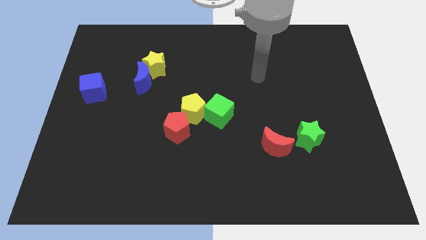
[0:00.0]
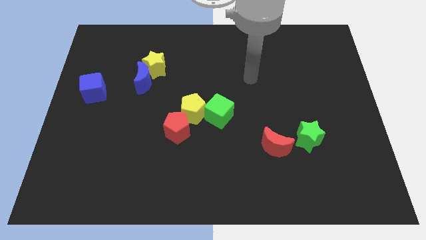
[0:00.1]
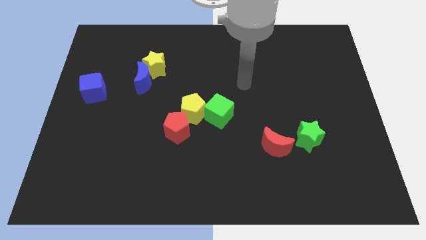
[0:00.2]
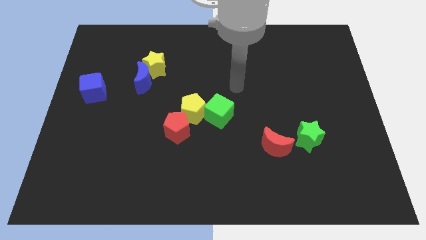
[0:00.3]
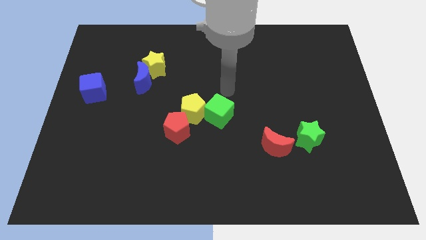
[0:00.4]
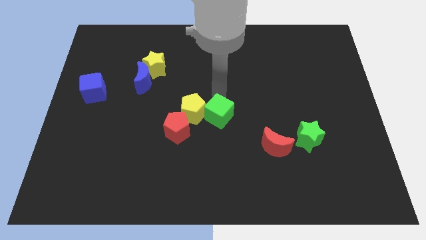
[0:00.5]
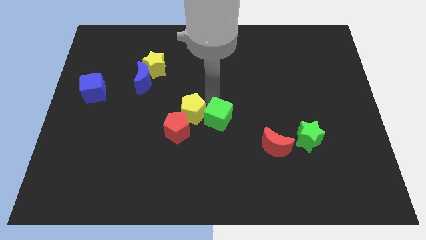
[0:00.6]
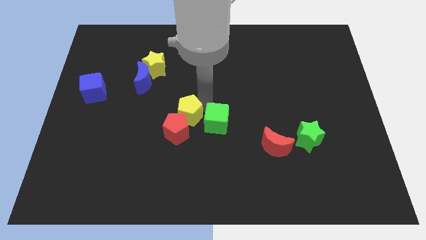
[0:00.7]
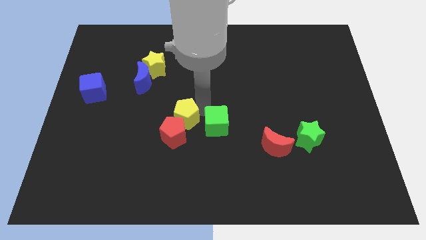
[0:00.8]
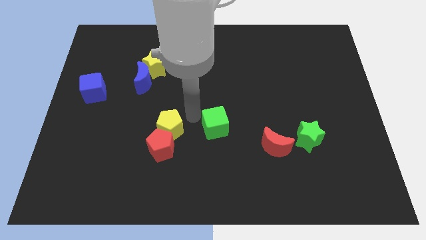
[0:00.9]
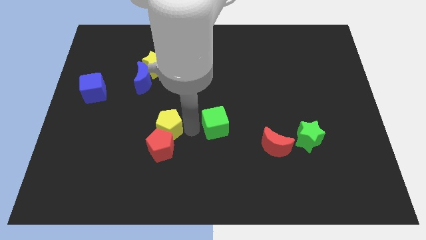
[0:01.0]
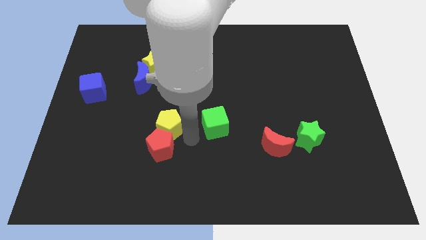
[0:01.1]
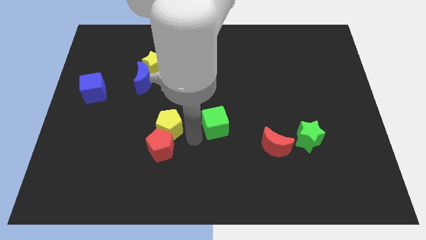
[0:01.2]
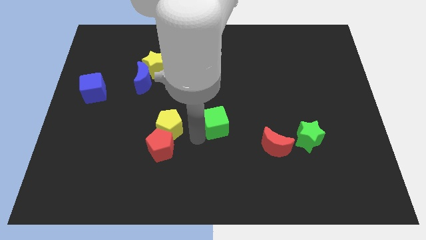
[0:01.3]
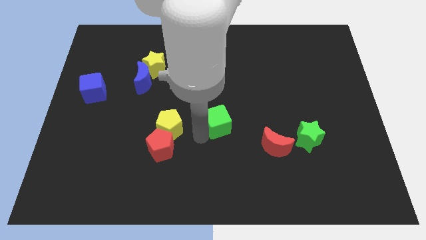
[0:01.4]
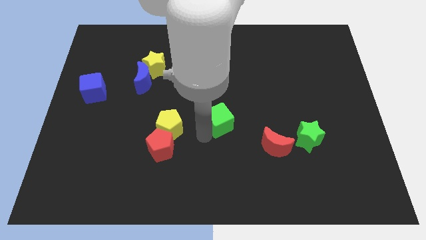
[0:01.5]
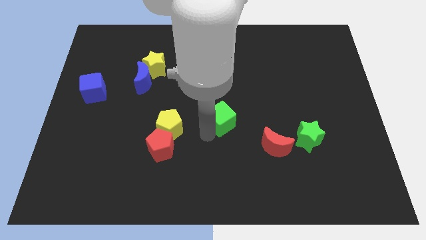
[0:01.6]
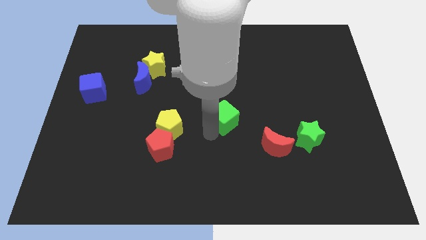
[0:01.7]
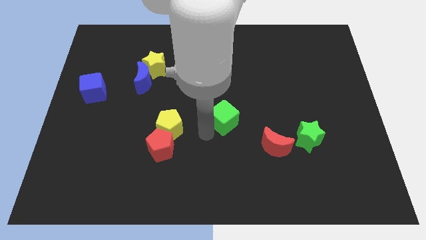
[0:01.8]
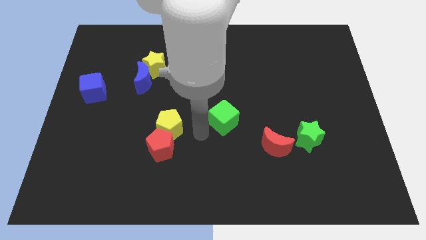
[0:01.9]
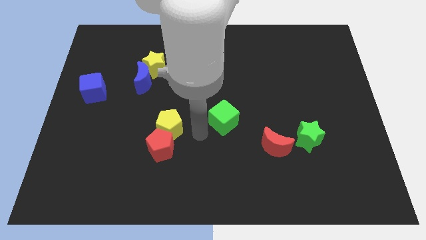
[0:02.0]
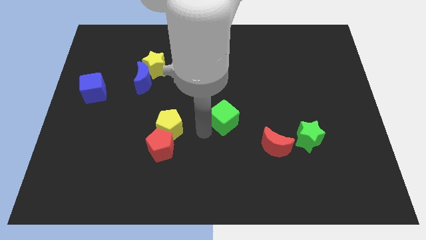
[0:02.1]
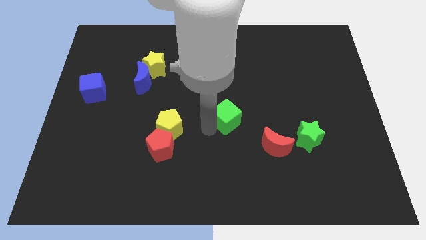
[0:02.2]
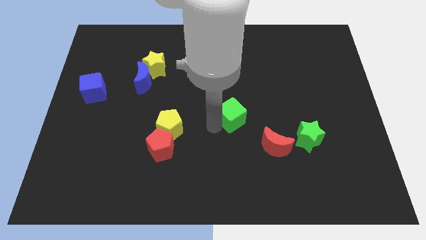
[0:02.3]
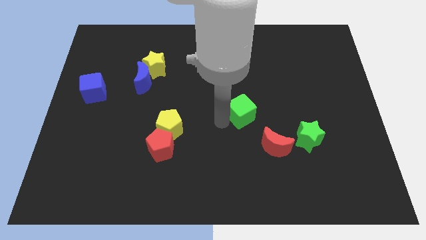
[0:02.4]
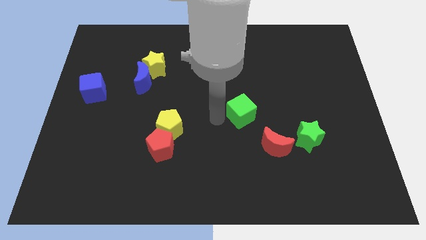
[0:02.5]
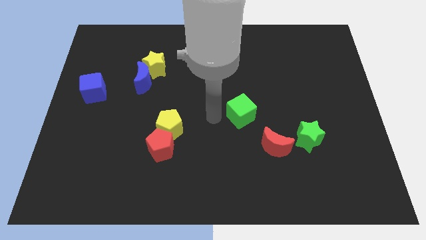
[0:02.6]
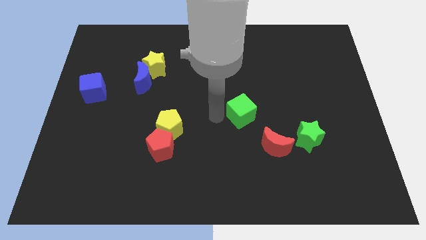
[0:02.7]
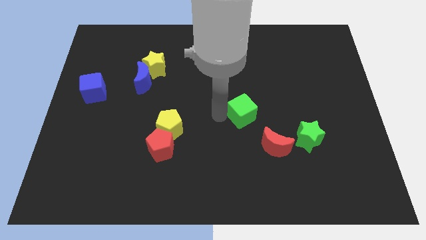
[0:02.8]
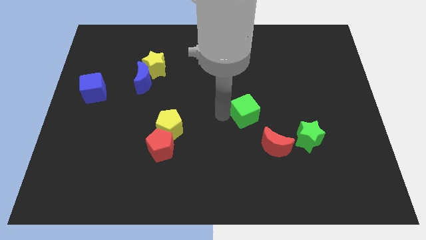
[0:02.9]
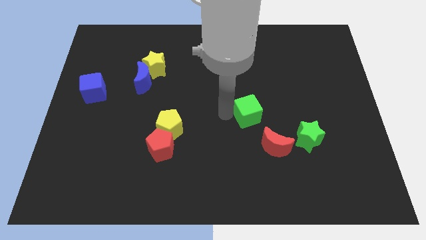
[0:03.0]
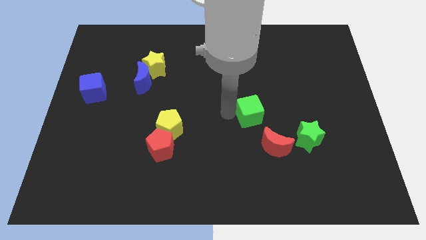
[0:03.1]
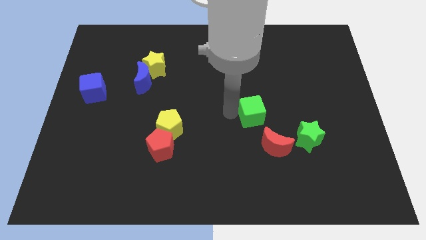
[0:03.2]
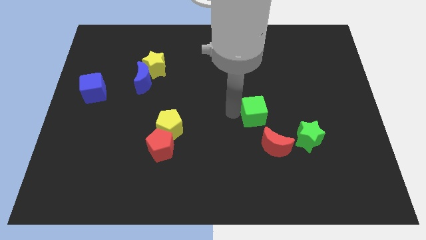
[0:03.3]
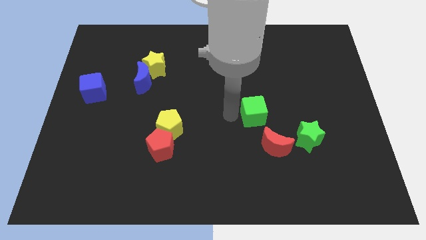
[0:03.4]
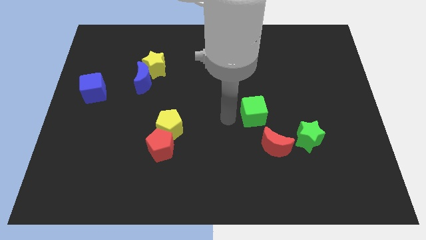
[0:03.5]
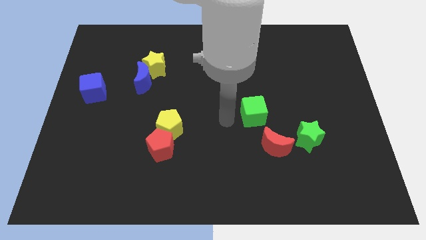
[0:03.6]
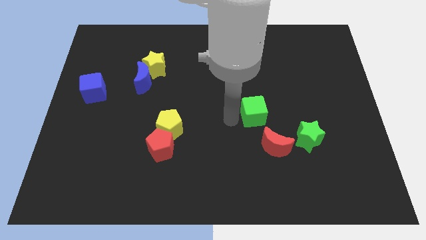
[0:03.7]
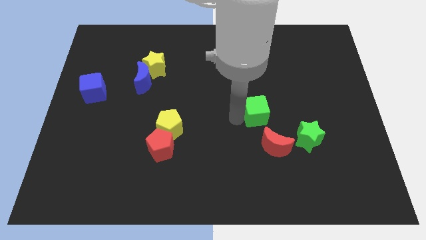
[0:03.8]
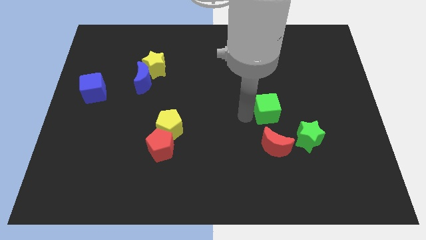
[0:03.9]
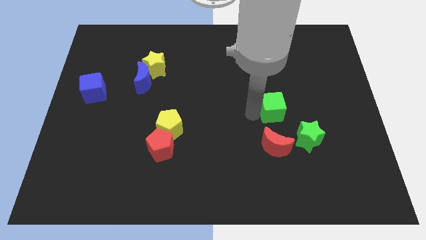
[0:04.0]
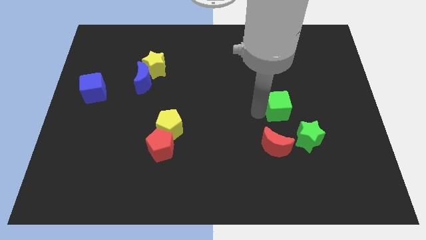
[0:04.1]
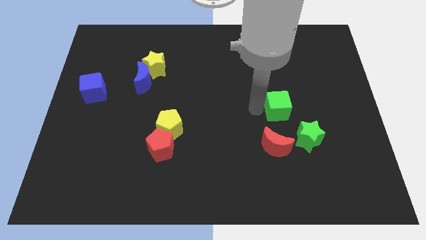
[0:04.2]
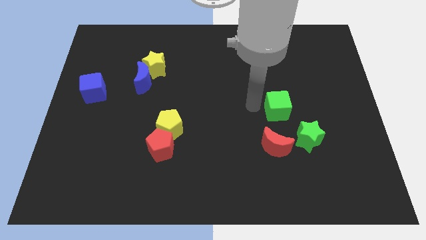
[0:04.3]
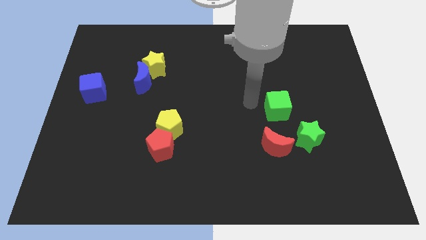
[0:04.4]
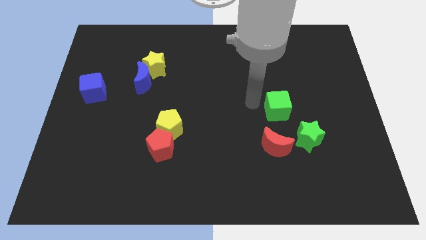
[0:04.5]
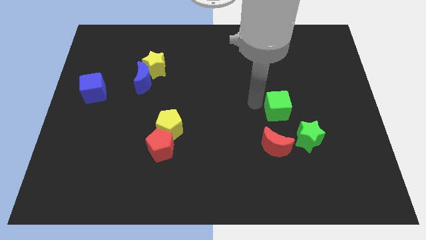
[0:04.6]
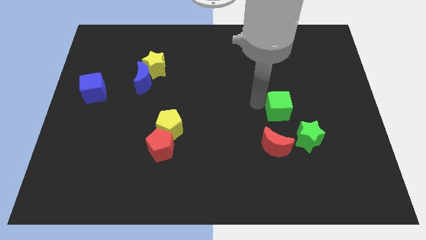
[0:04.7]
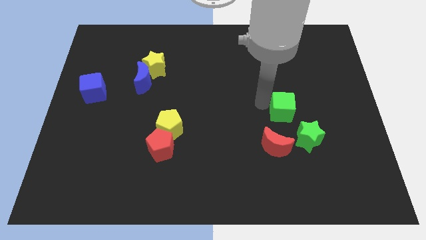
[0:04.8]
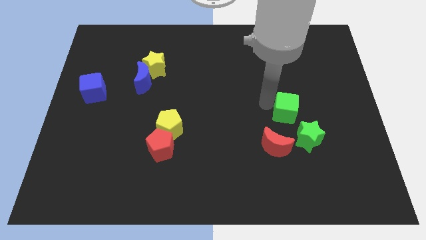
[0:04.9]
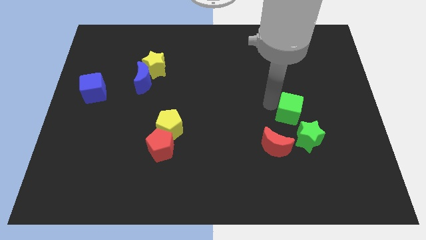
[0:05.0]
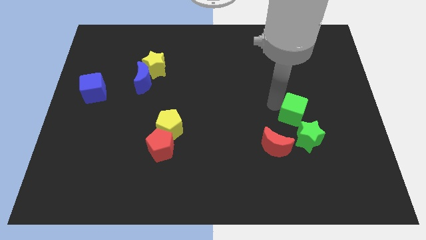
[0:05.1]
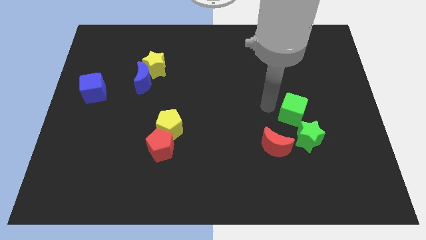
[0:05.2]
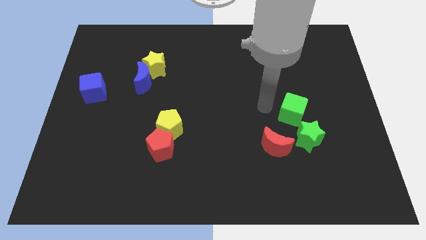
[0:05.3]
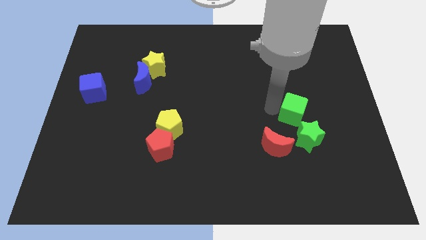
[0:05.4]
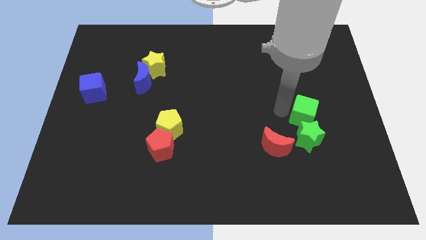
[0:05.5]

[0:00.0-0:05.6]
slide the green cube diagonally up and to the right of the green star

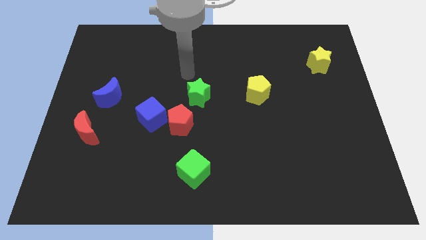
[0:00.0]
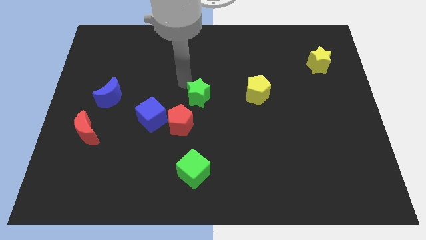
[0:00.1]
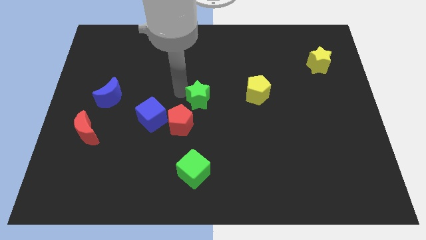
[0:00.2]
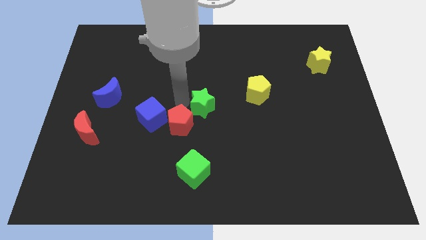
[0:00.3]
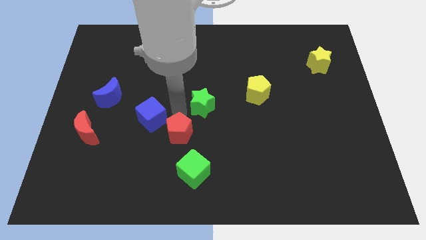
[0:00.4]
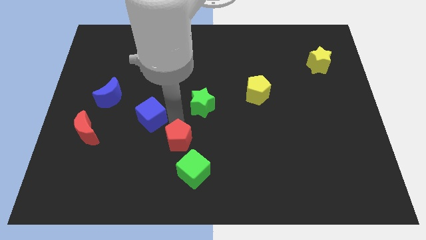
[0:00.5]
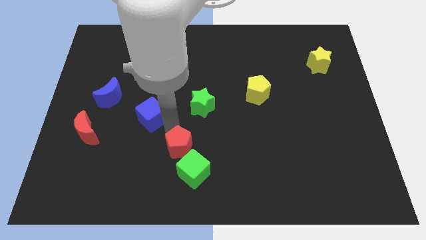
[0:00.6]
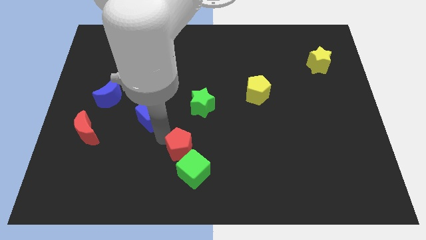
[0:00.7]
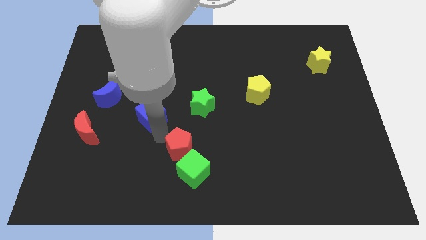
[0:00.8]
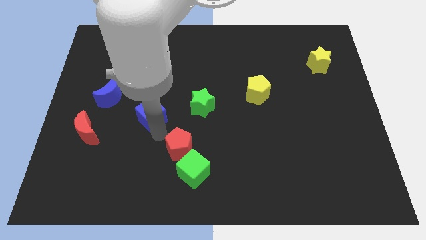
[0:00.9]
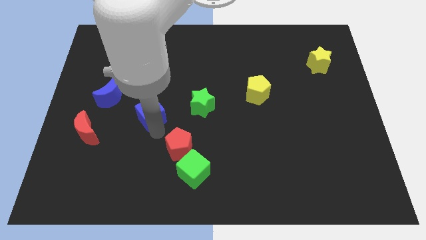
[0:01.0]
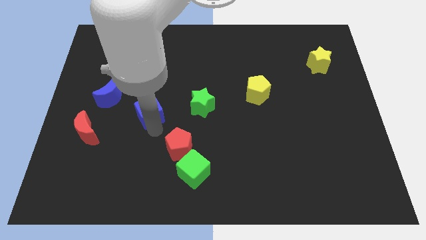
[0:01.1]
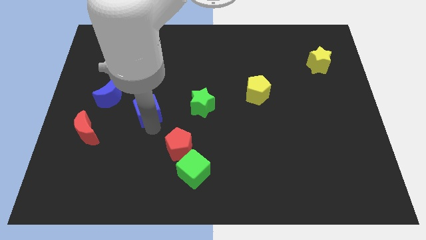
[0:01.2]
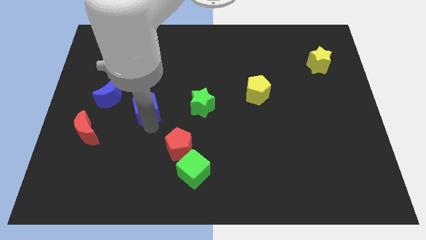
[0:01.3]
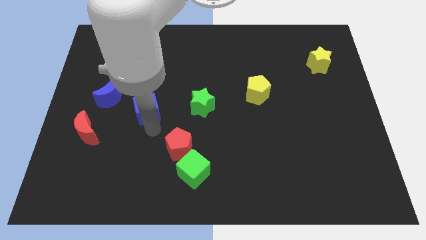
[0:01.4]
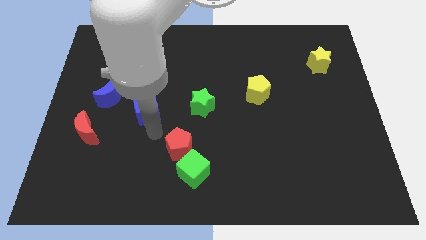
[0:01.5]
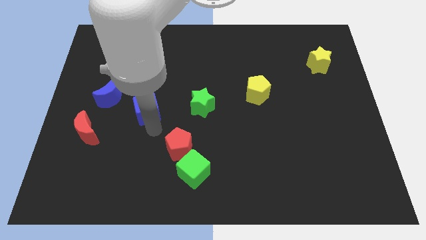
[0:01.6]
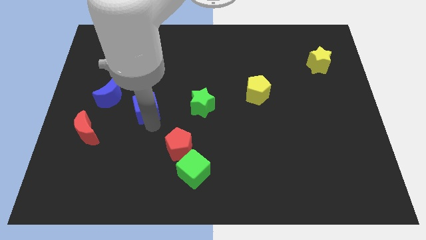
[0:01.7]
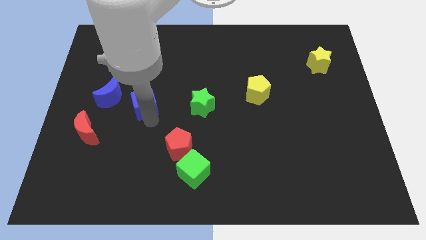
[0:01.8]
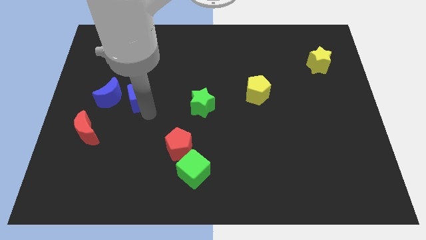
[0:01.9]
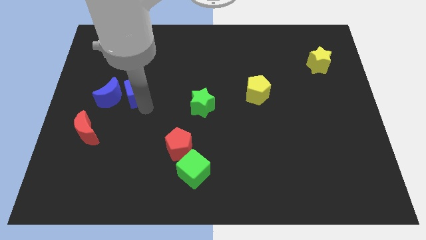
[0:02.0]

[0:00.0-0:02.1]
put the blue cube diagonally up and to the right of the blue moon
